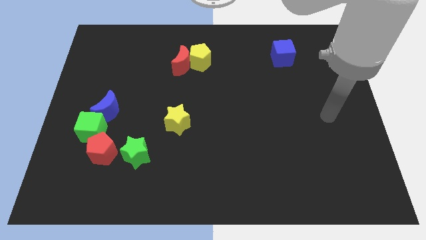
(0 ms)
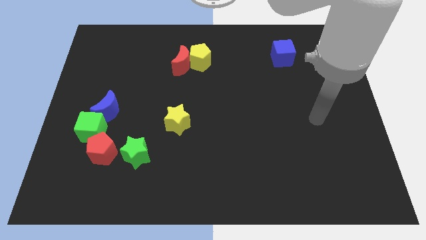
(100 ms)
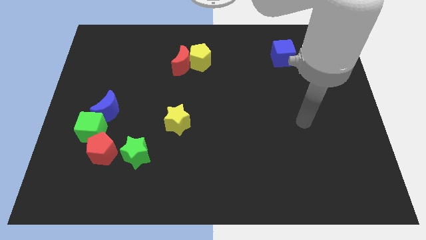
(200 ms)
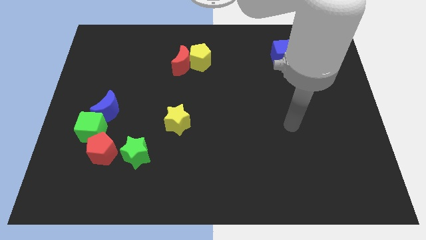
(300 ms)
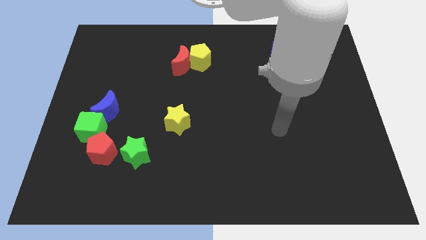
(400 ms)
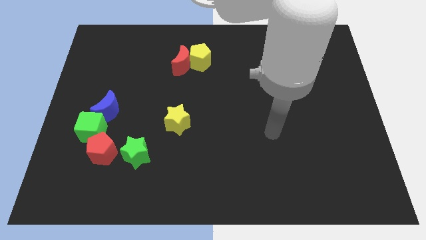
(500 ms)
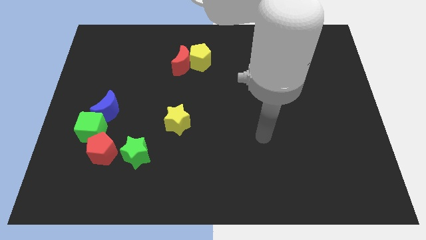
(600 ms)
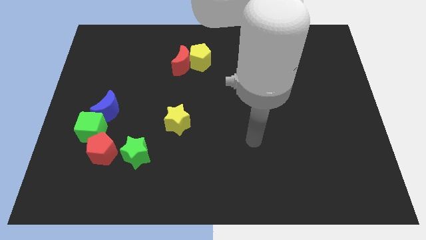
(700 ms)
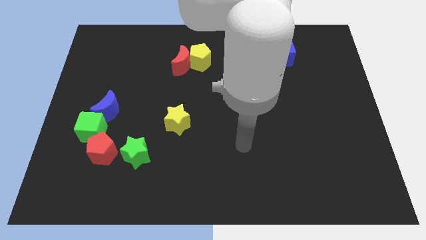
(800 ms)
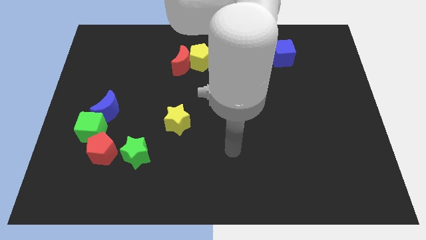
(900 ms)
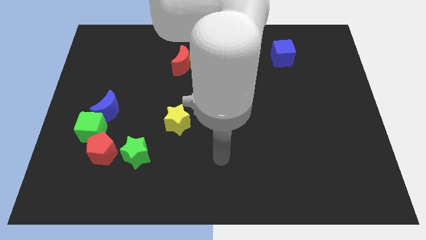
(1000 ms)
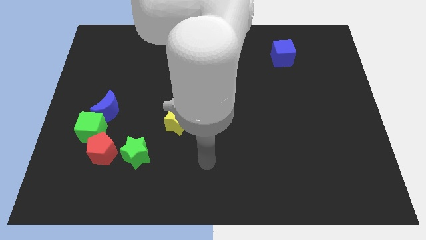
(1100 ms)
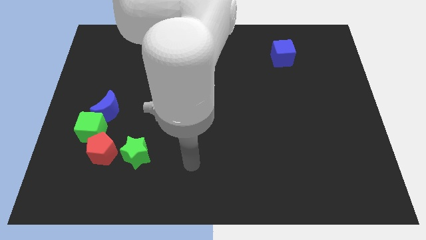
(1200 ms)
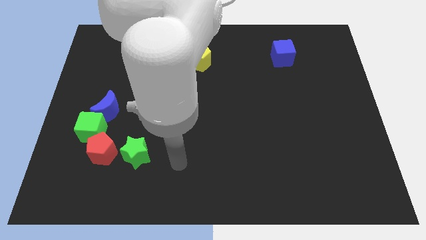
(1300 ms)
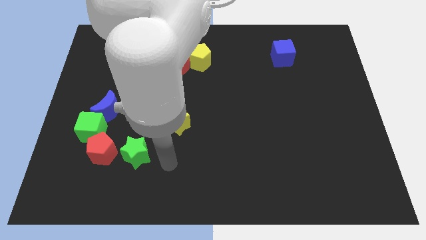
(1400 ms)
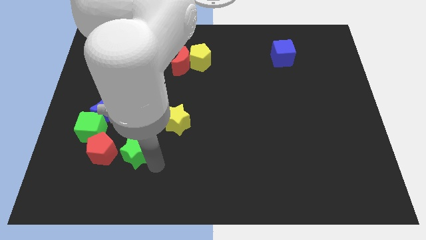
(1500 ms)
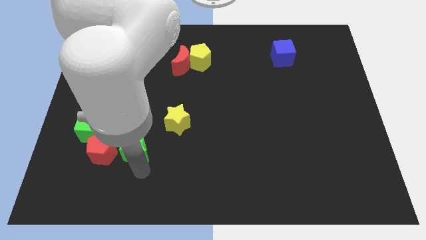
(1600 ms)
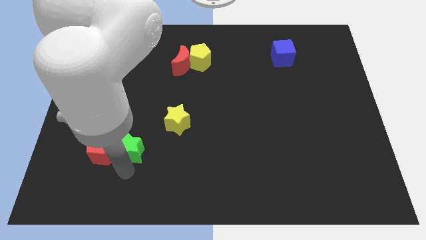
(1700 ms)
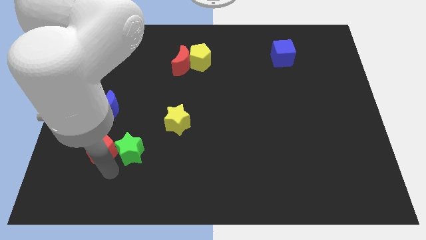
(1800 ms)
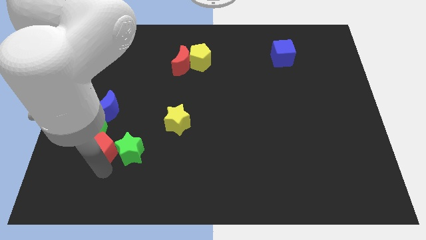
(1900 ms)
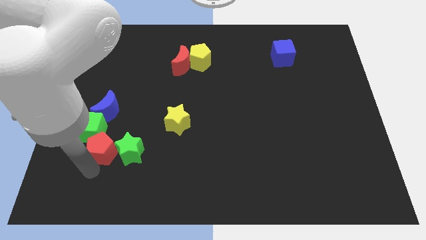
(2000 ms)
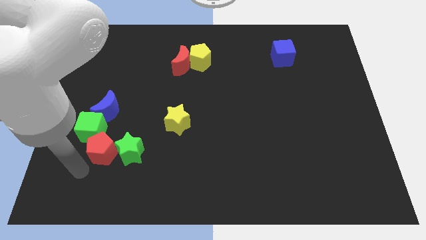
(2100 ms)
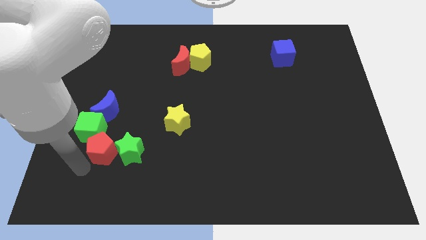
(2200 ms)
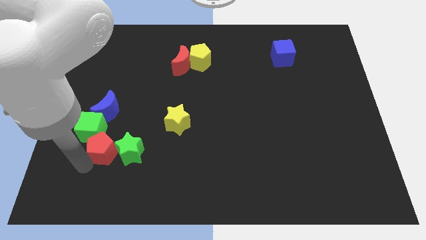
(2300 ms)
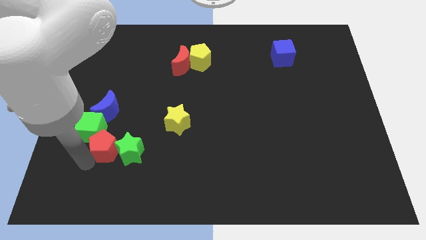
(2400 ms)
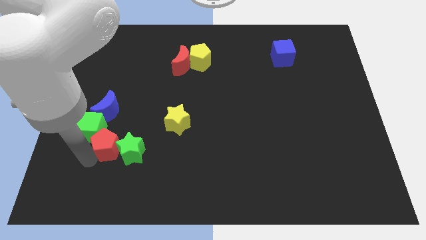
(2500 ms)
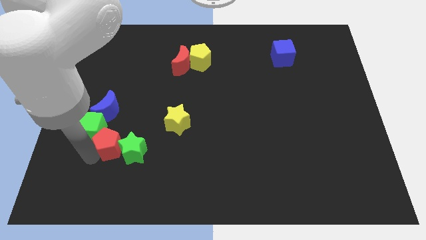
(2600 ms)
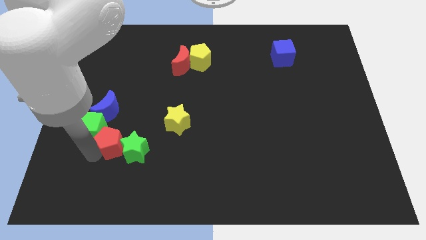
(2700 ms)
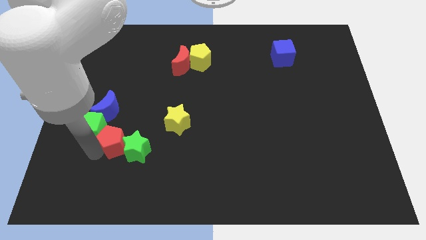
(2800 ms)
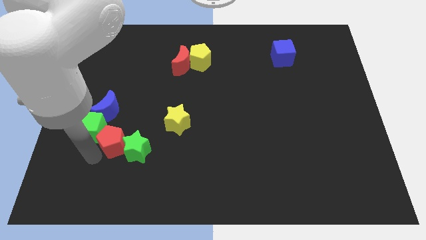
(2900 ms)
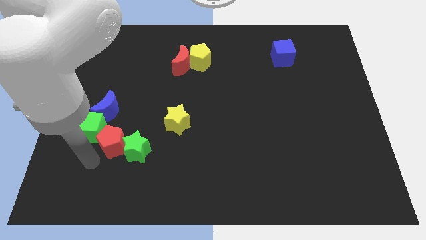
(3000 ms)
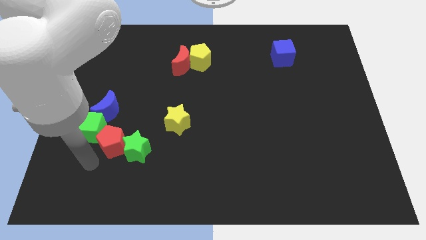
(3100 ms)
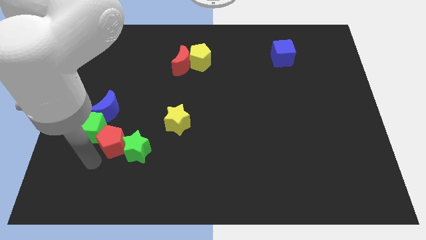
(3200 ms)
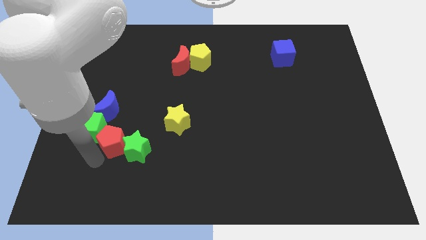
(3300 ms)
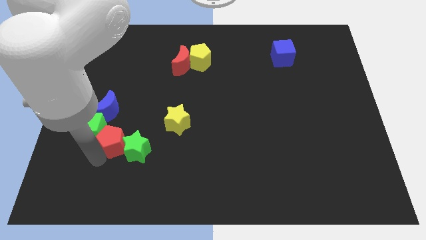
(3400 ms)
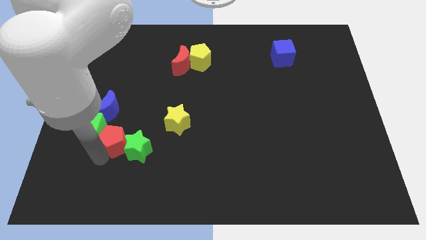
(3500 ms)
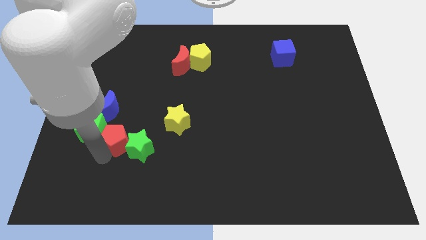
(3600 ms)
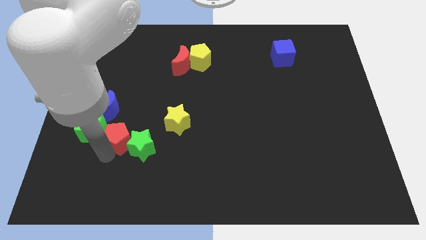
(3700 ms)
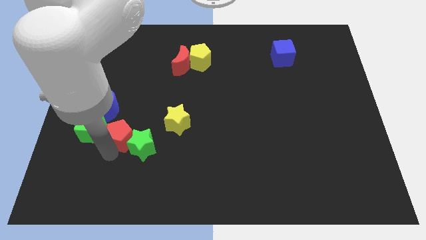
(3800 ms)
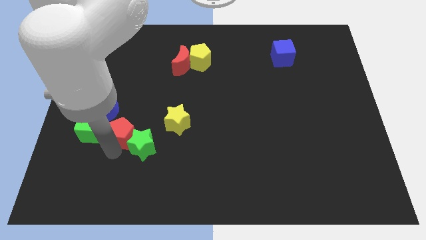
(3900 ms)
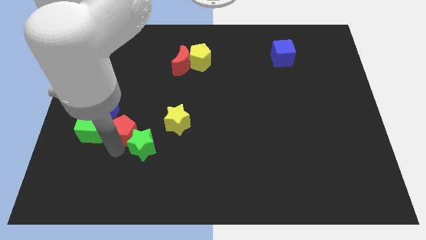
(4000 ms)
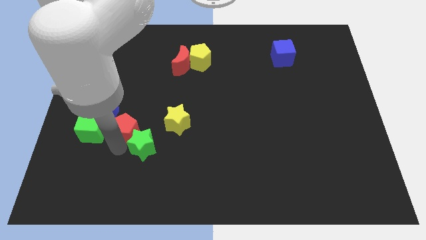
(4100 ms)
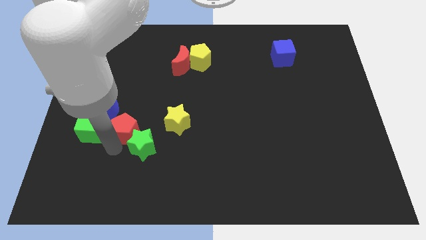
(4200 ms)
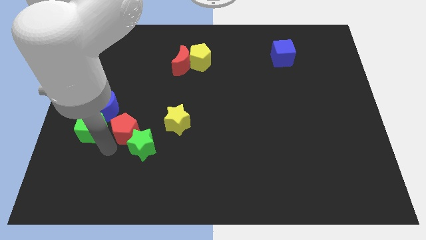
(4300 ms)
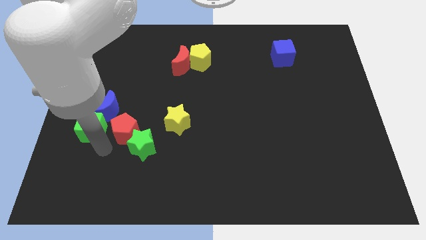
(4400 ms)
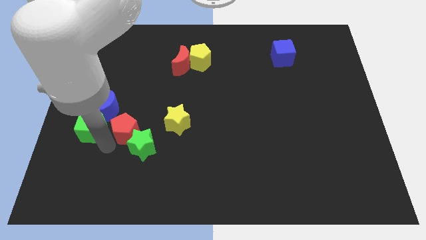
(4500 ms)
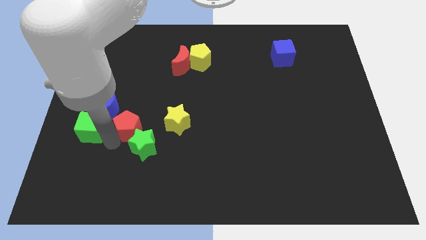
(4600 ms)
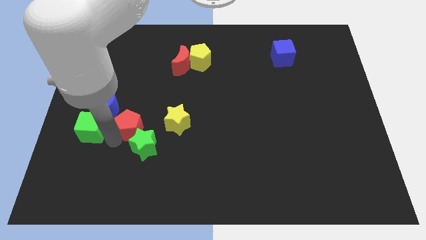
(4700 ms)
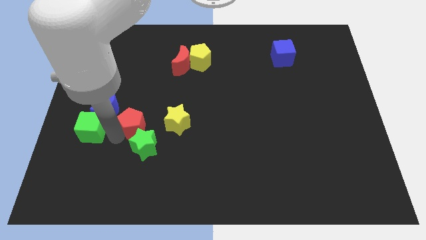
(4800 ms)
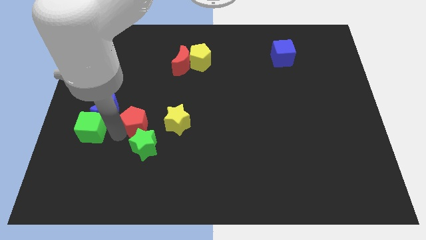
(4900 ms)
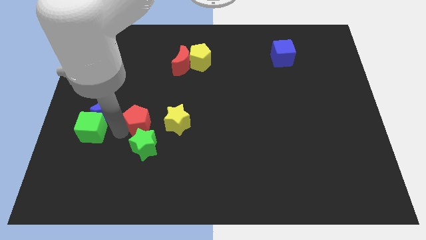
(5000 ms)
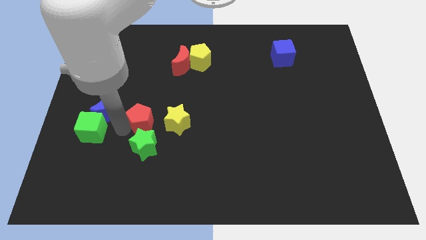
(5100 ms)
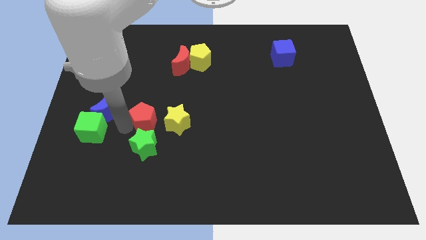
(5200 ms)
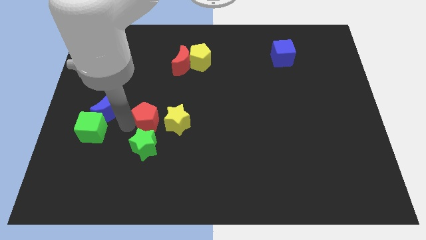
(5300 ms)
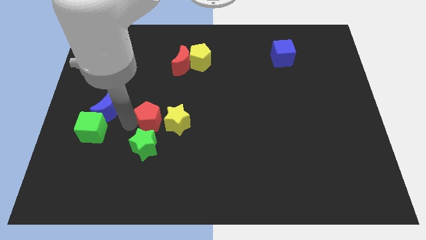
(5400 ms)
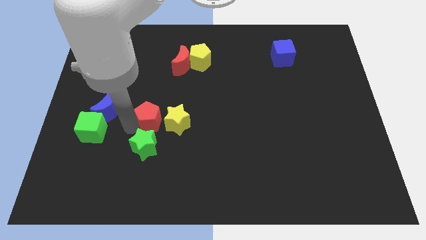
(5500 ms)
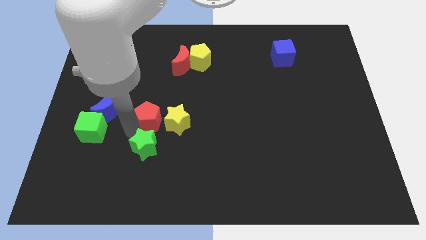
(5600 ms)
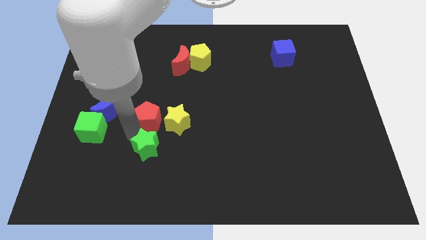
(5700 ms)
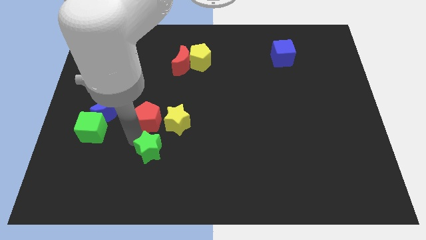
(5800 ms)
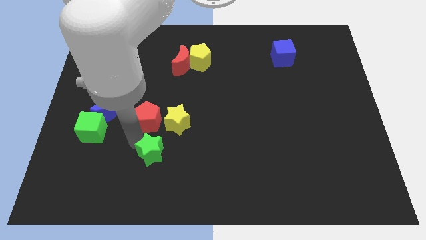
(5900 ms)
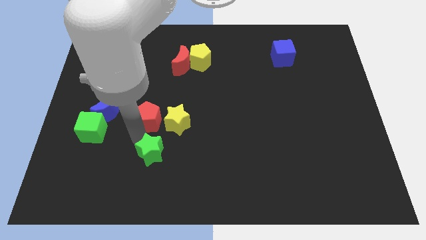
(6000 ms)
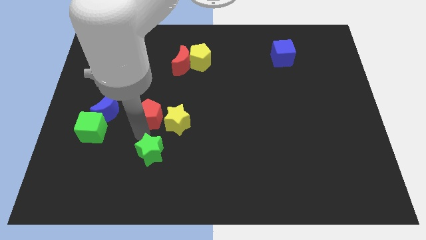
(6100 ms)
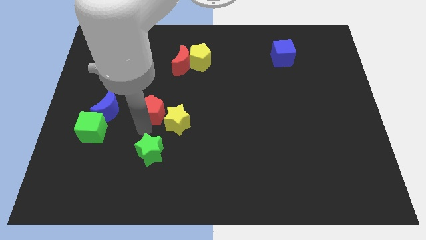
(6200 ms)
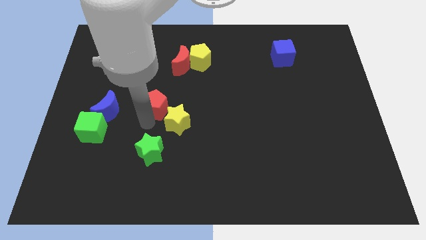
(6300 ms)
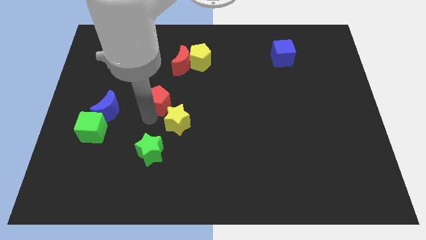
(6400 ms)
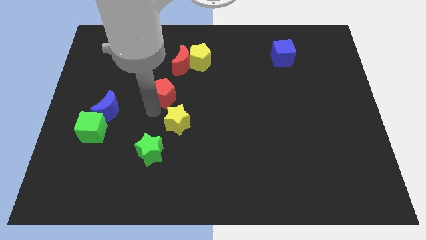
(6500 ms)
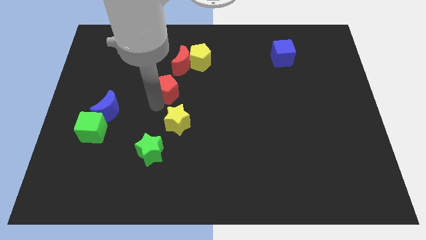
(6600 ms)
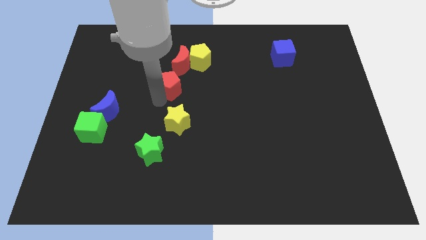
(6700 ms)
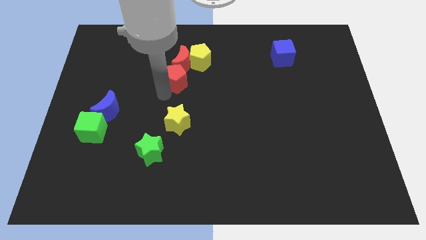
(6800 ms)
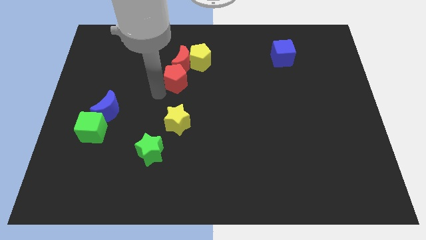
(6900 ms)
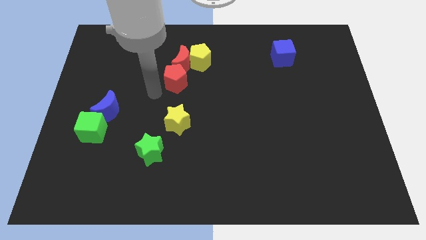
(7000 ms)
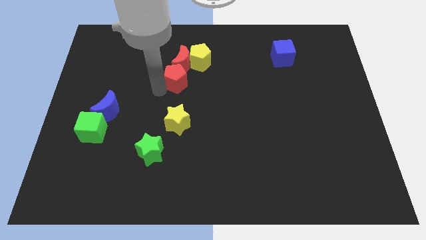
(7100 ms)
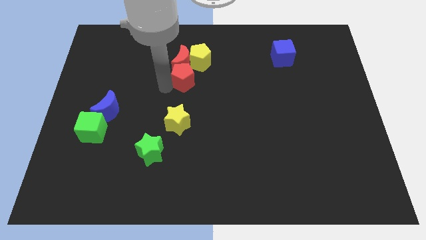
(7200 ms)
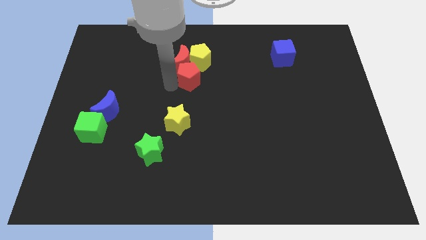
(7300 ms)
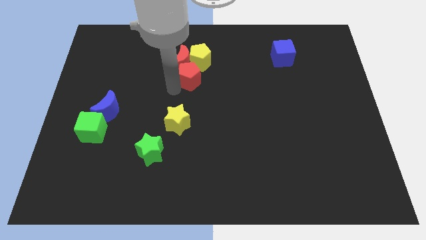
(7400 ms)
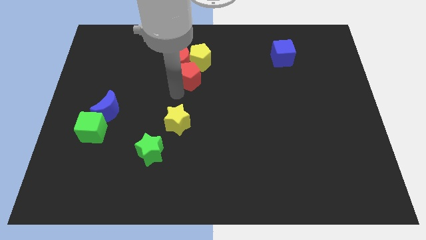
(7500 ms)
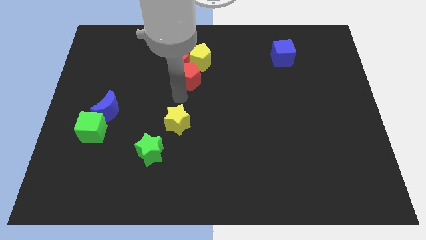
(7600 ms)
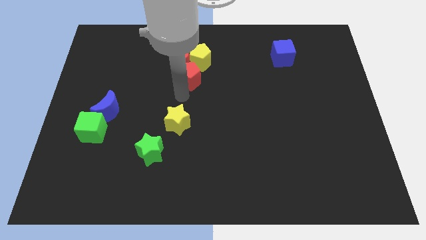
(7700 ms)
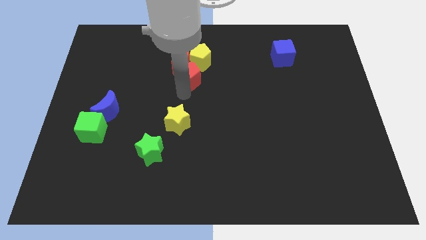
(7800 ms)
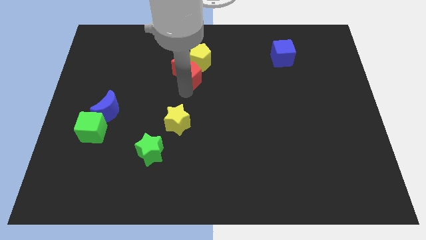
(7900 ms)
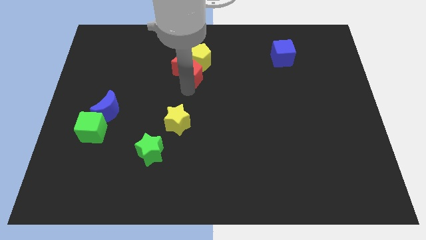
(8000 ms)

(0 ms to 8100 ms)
push the red pentagon towards the yellow pentagon
